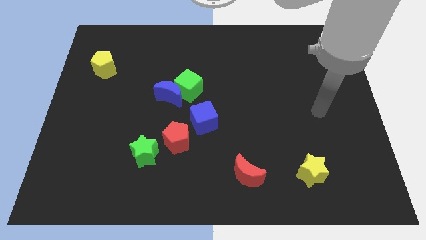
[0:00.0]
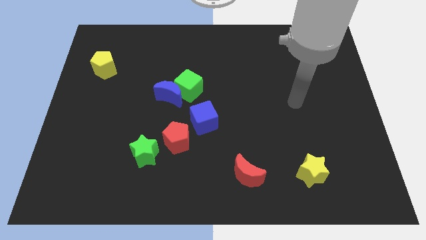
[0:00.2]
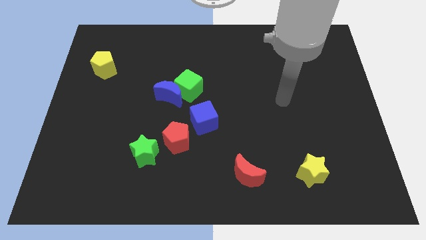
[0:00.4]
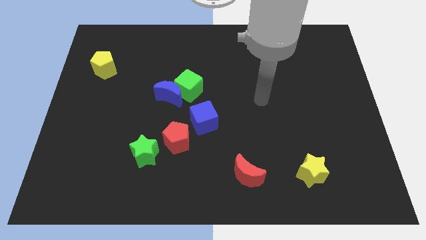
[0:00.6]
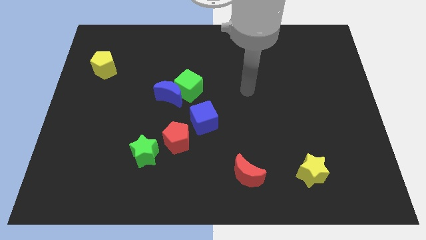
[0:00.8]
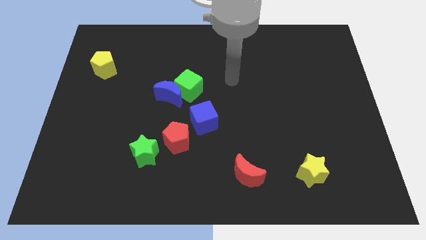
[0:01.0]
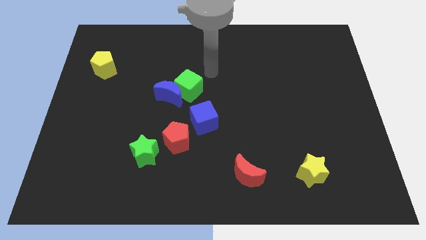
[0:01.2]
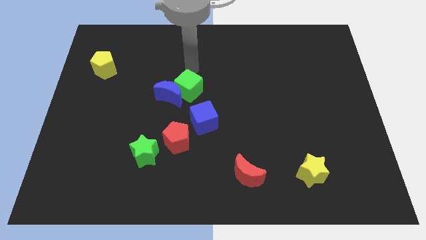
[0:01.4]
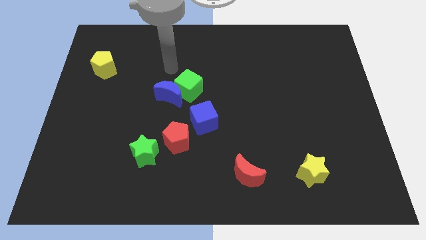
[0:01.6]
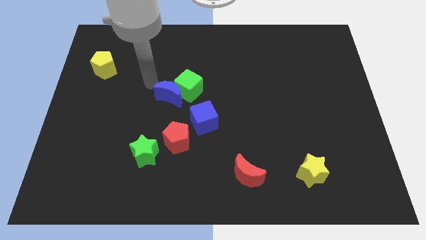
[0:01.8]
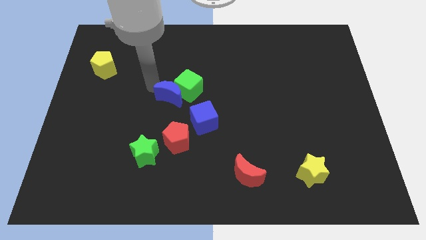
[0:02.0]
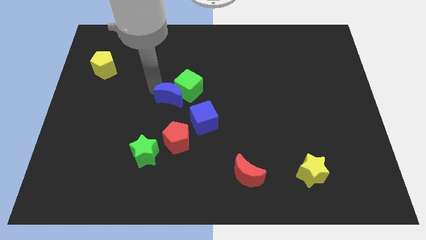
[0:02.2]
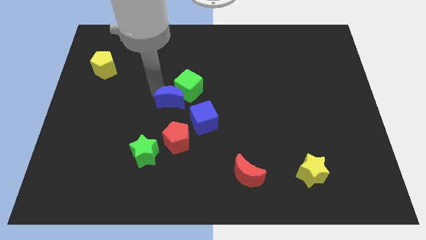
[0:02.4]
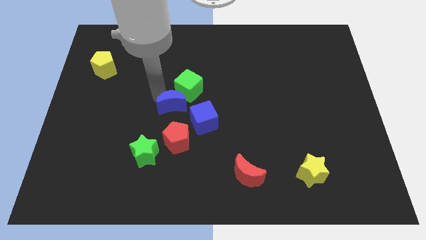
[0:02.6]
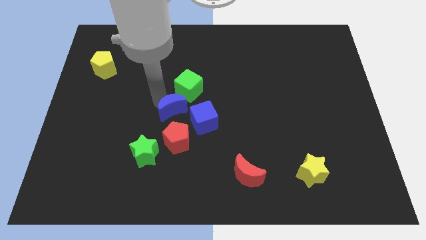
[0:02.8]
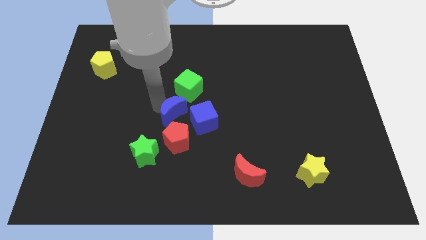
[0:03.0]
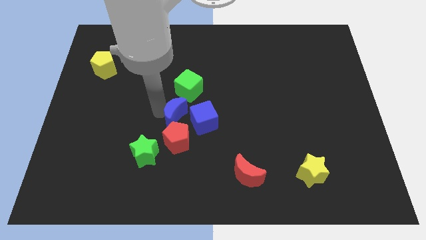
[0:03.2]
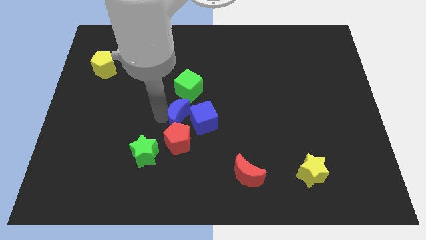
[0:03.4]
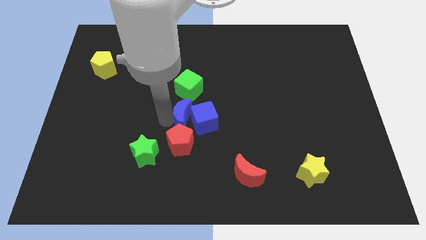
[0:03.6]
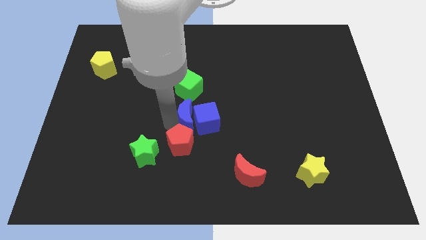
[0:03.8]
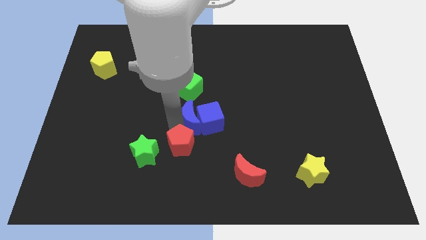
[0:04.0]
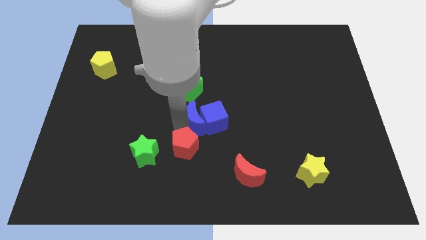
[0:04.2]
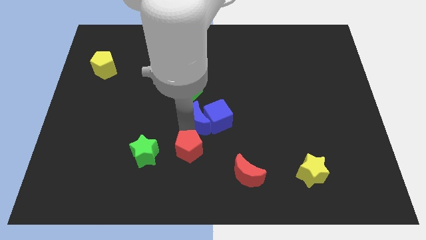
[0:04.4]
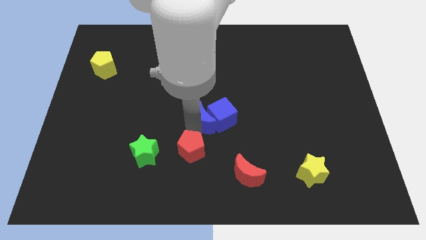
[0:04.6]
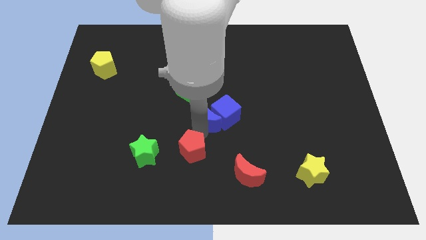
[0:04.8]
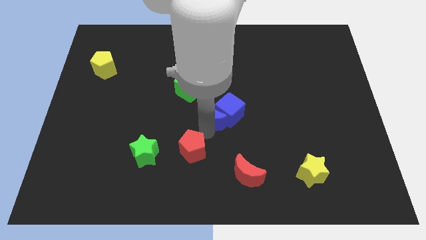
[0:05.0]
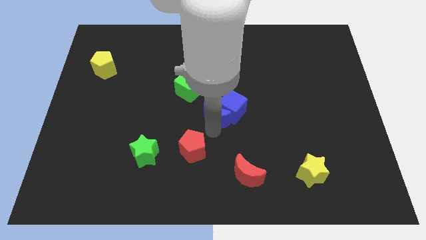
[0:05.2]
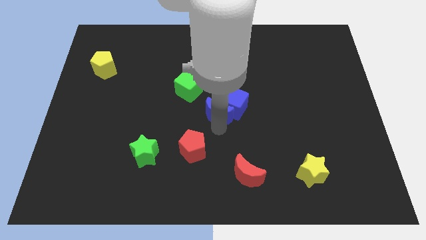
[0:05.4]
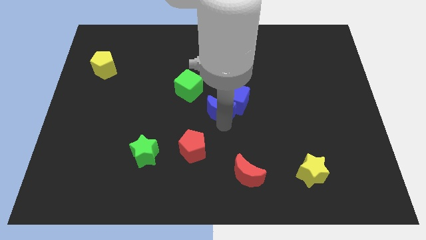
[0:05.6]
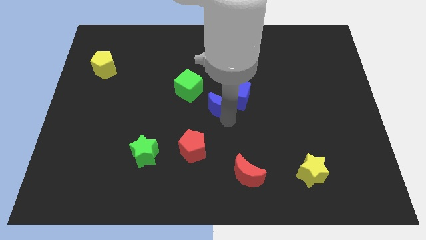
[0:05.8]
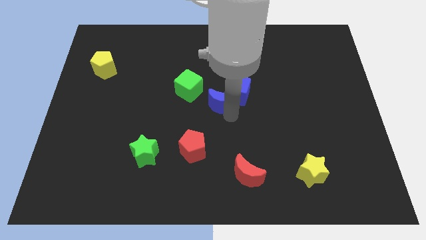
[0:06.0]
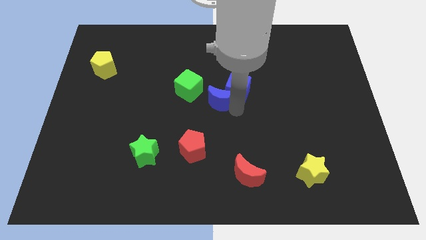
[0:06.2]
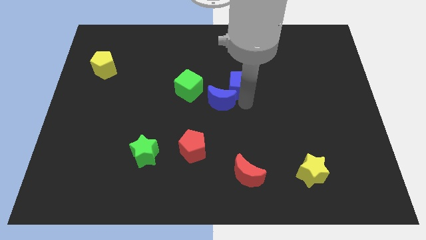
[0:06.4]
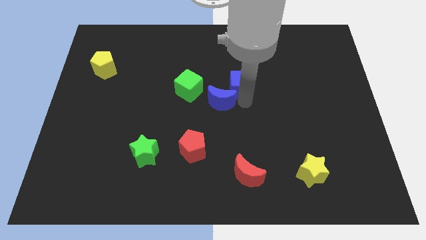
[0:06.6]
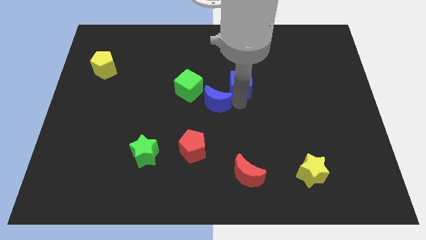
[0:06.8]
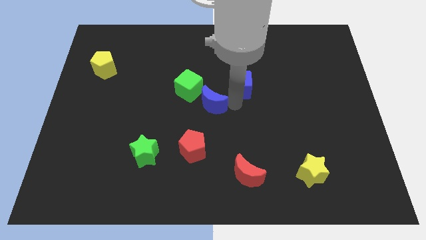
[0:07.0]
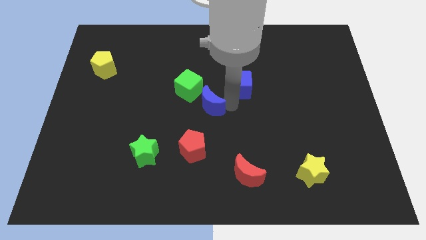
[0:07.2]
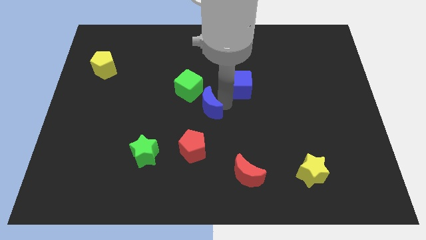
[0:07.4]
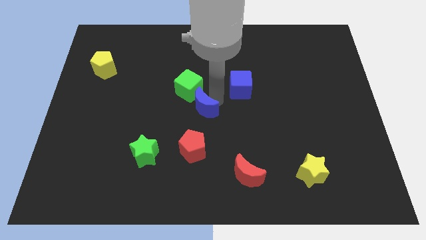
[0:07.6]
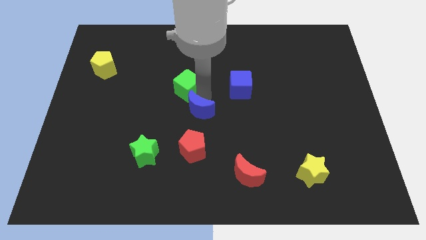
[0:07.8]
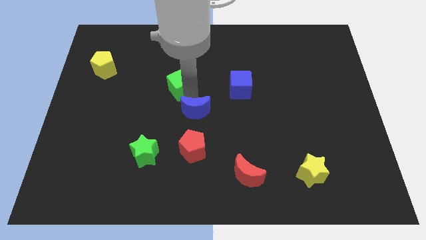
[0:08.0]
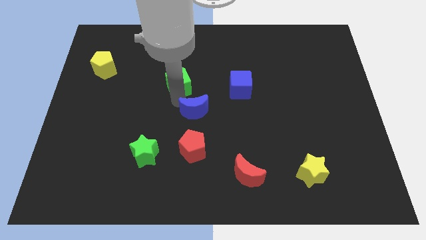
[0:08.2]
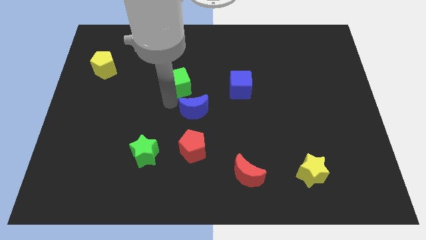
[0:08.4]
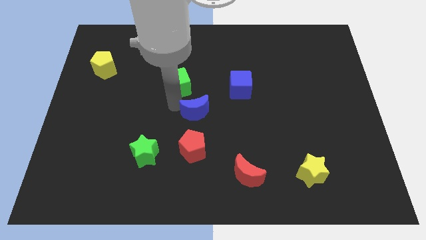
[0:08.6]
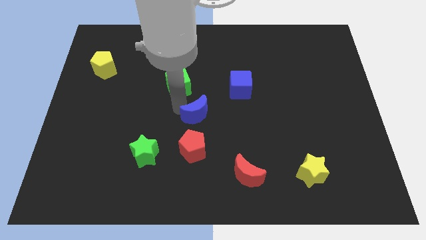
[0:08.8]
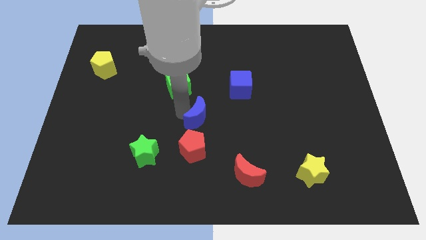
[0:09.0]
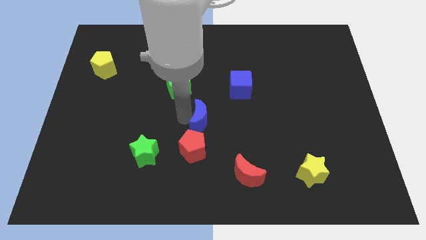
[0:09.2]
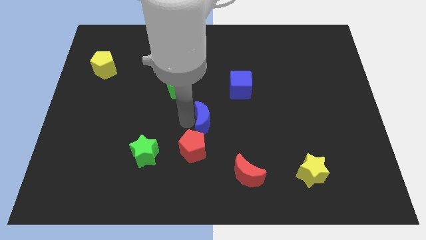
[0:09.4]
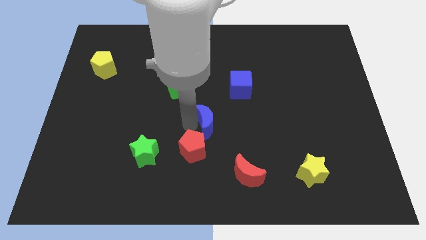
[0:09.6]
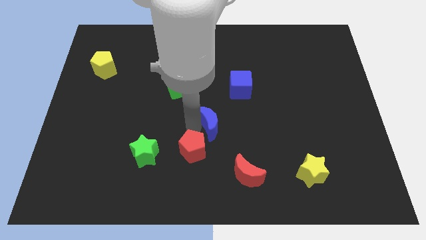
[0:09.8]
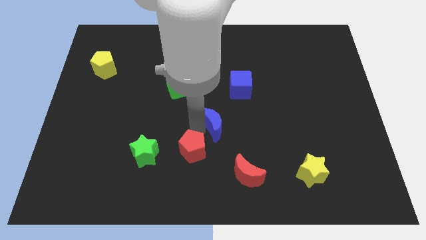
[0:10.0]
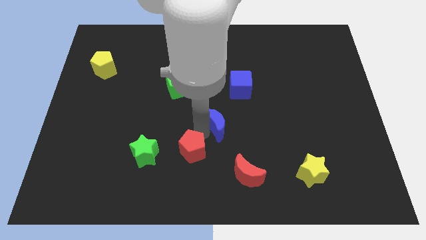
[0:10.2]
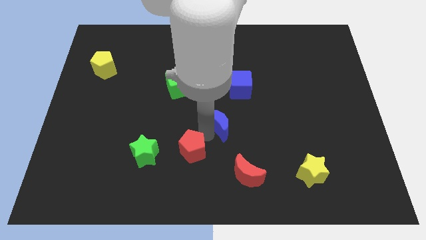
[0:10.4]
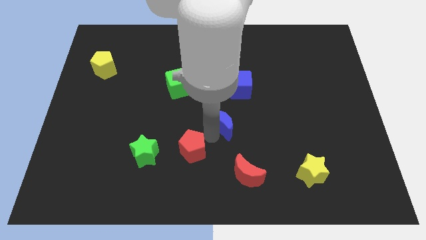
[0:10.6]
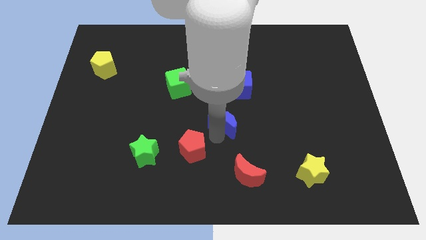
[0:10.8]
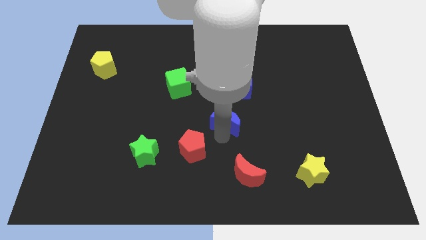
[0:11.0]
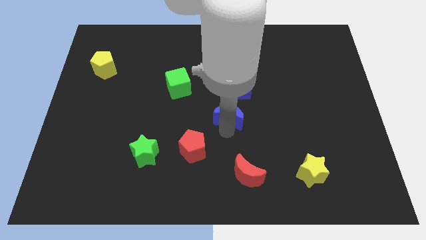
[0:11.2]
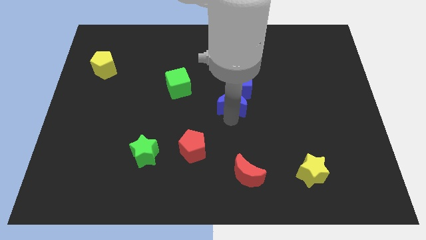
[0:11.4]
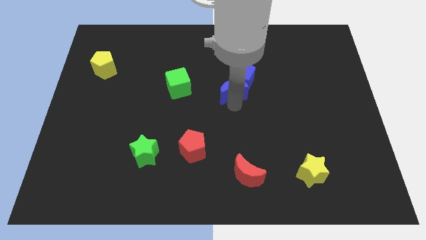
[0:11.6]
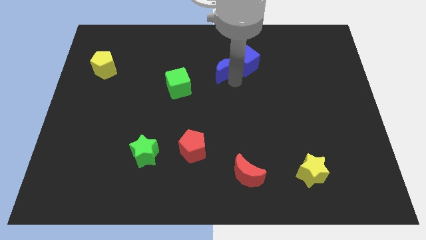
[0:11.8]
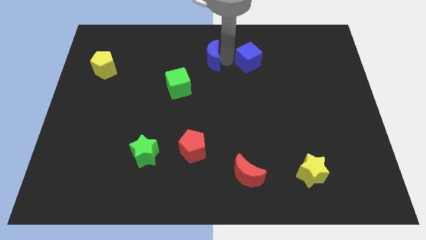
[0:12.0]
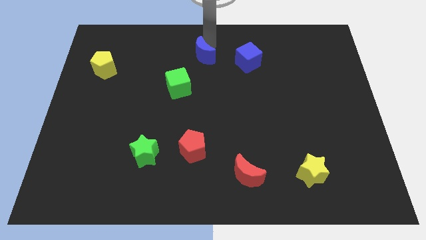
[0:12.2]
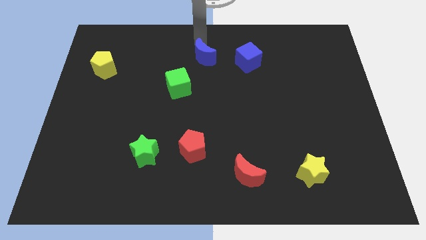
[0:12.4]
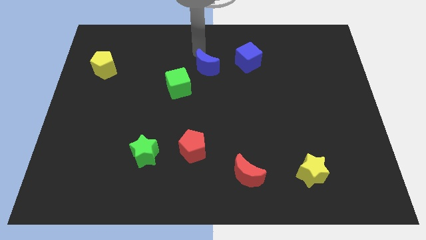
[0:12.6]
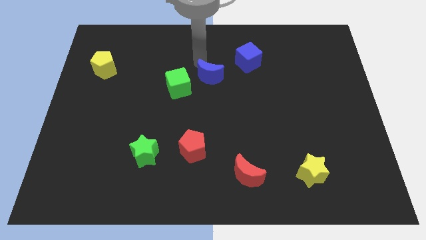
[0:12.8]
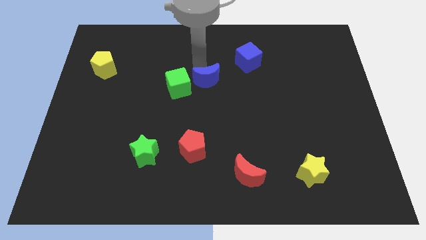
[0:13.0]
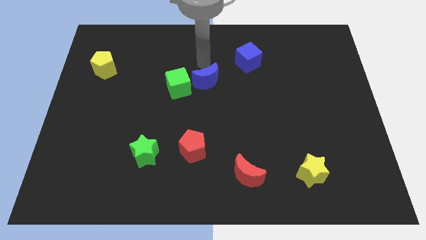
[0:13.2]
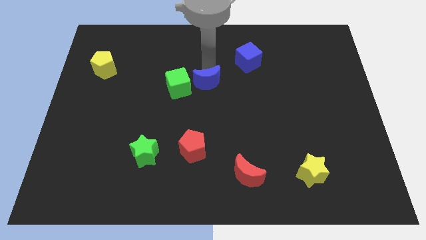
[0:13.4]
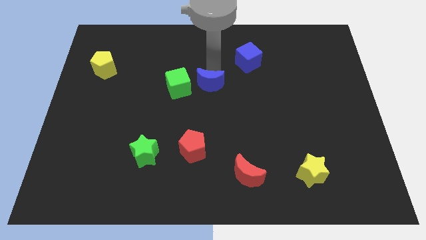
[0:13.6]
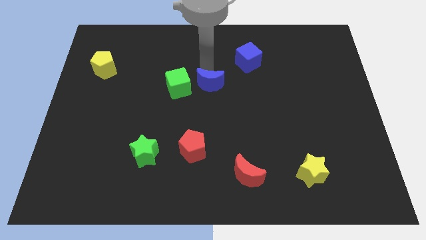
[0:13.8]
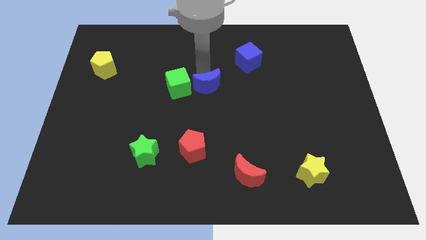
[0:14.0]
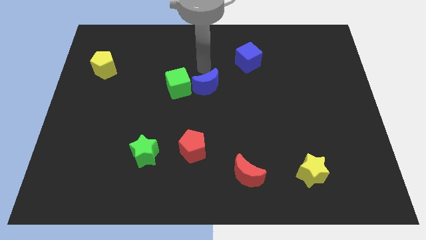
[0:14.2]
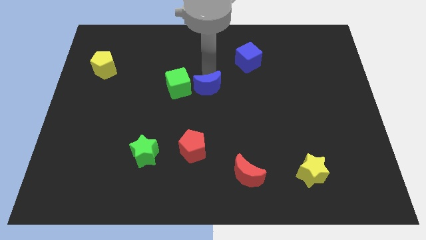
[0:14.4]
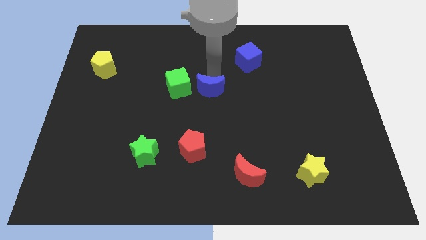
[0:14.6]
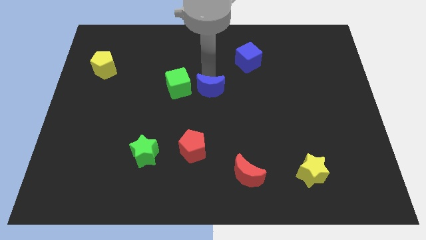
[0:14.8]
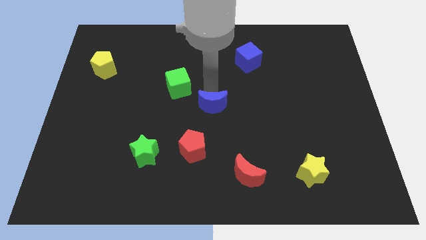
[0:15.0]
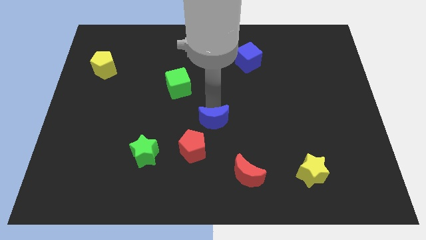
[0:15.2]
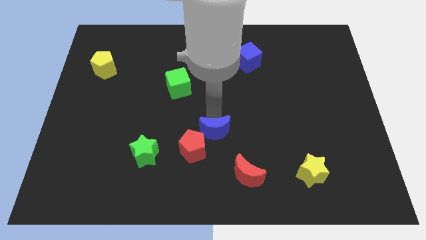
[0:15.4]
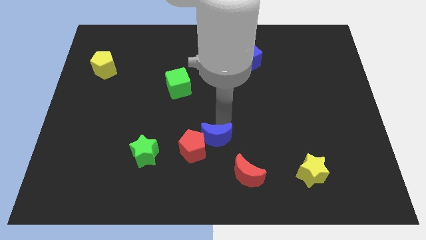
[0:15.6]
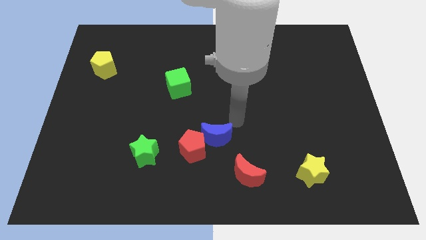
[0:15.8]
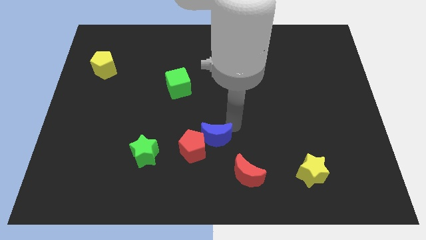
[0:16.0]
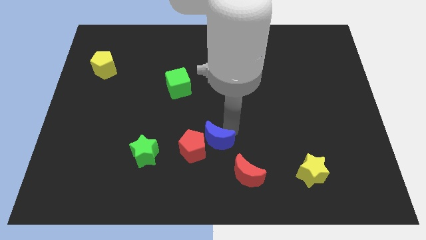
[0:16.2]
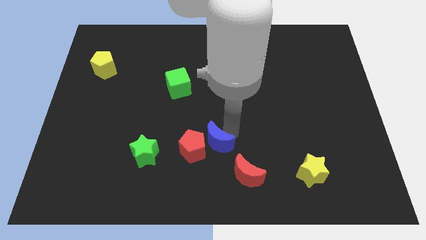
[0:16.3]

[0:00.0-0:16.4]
put the blue moon to the right side of the green star

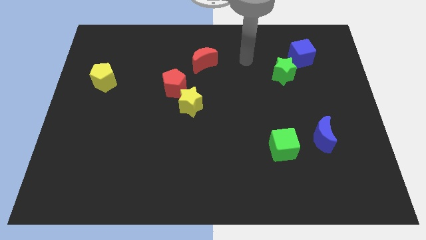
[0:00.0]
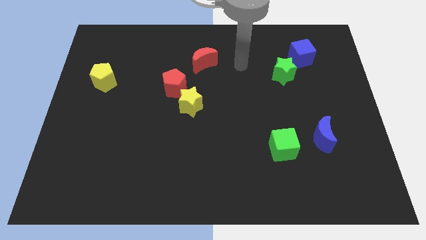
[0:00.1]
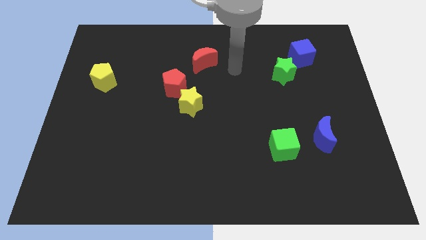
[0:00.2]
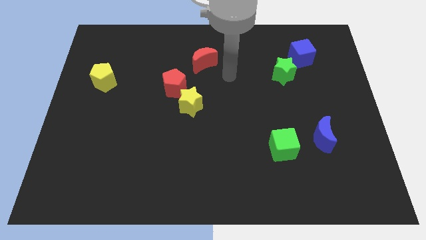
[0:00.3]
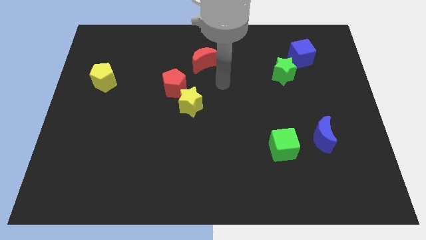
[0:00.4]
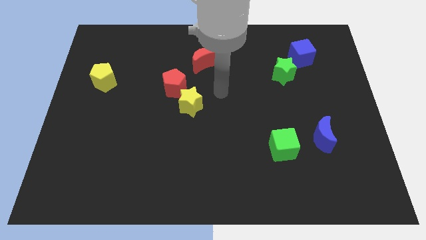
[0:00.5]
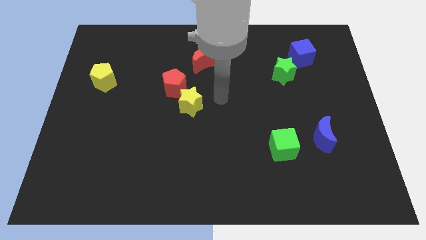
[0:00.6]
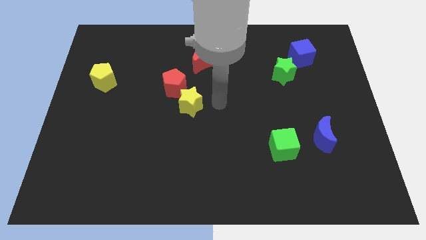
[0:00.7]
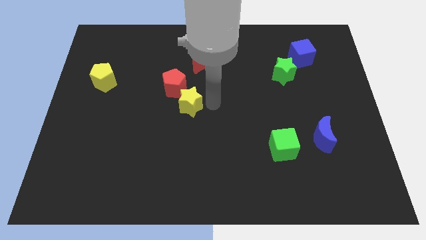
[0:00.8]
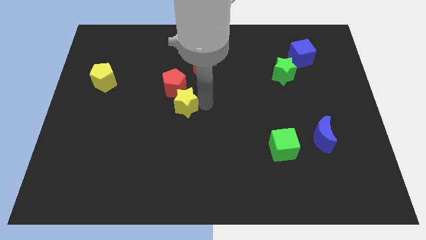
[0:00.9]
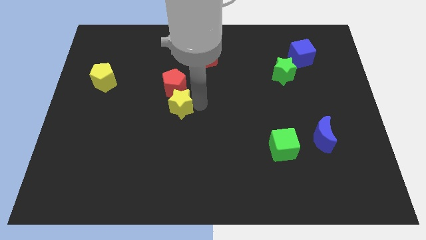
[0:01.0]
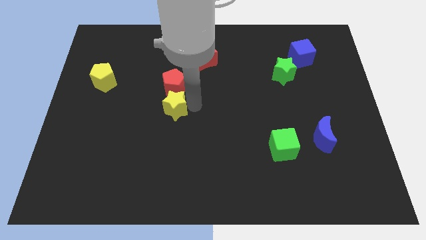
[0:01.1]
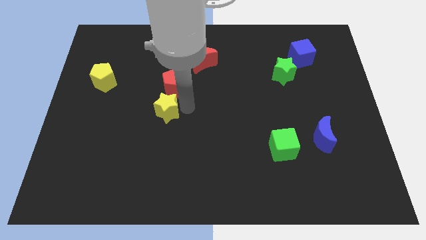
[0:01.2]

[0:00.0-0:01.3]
push the yellow star to the bottom left side of the red pentagon
